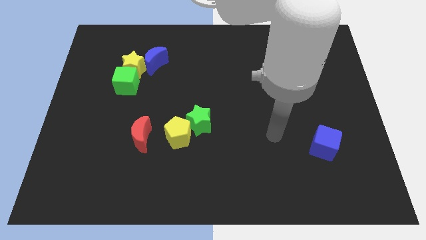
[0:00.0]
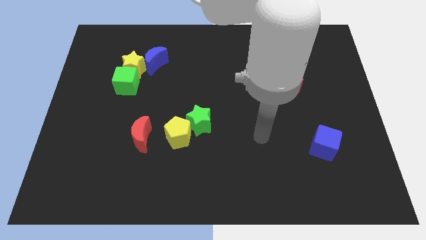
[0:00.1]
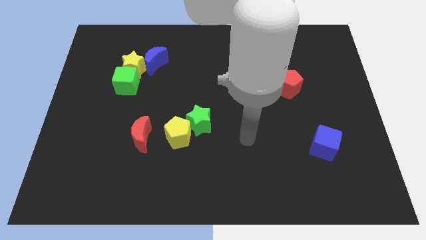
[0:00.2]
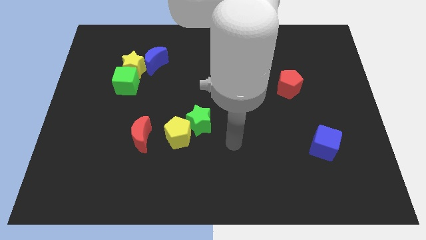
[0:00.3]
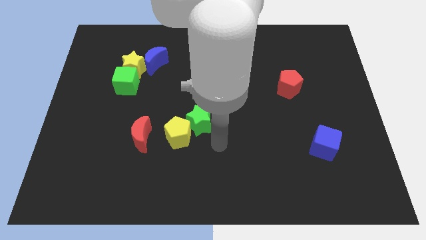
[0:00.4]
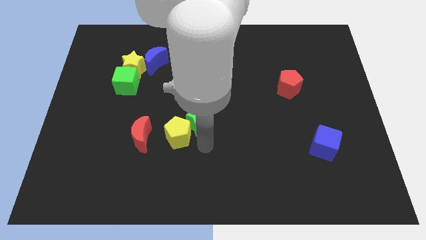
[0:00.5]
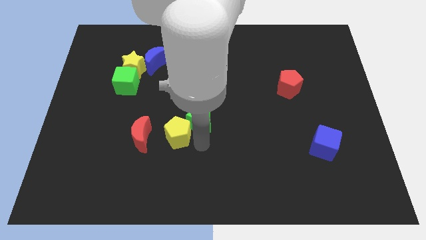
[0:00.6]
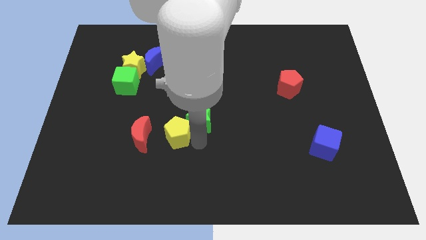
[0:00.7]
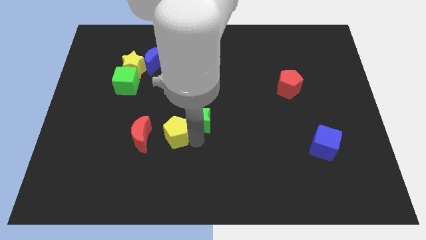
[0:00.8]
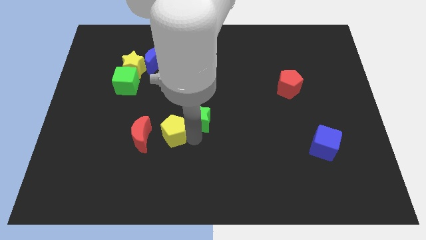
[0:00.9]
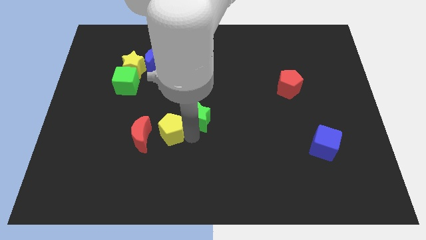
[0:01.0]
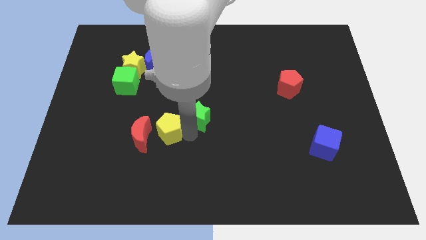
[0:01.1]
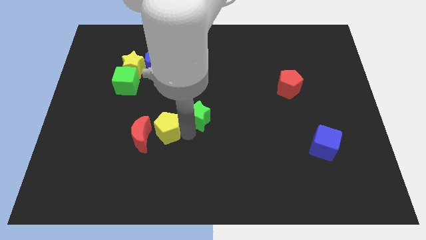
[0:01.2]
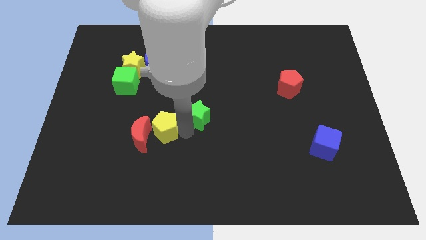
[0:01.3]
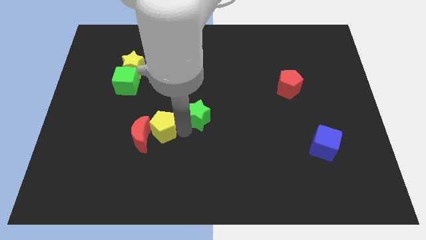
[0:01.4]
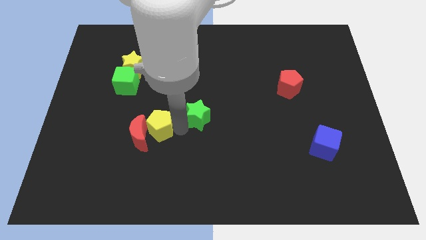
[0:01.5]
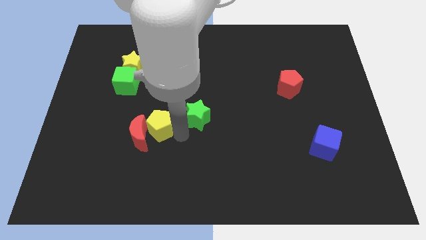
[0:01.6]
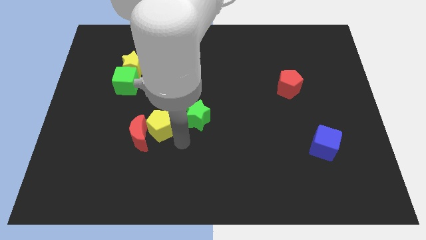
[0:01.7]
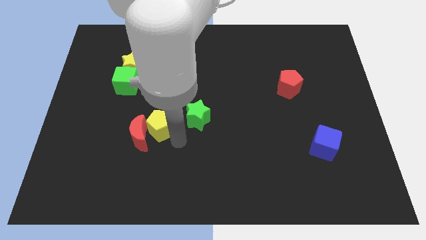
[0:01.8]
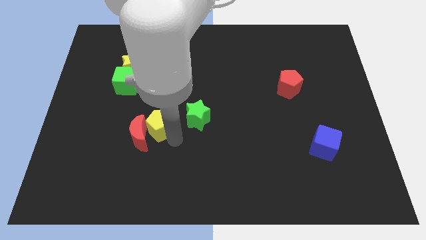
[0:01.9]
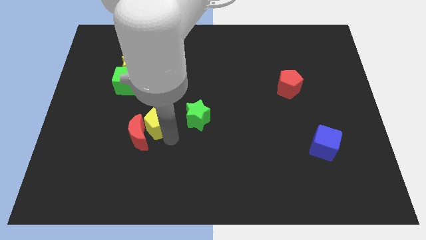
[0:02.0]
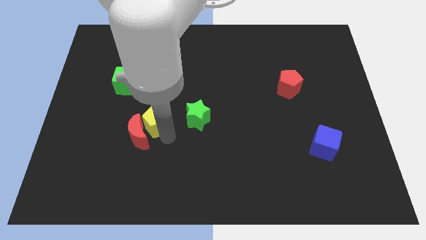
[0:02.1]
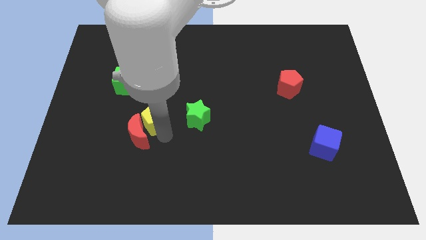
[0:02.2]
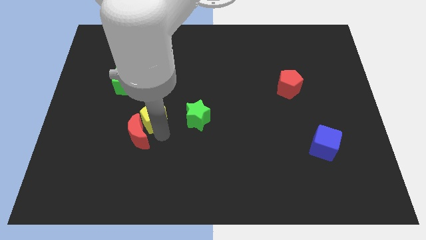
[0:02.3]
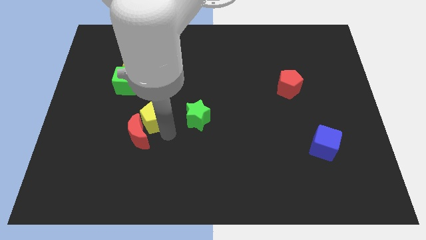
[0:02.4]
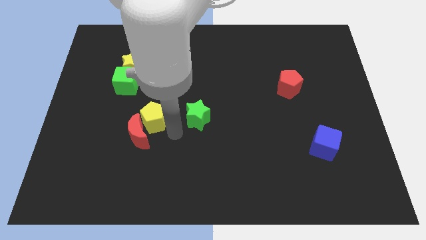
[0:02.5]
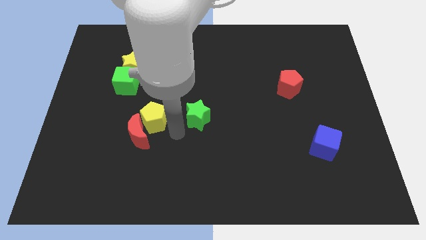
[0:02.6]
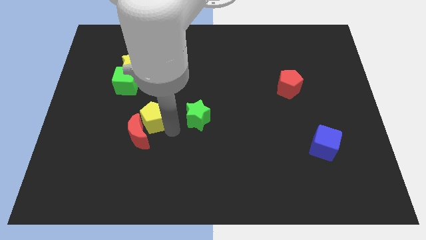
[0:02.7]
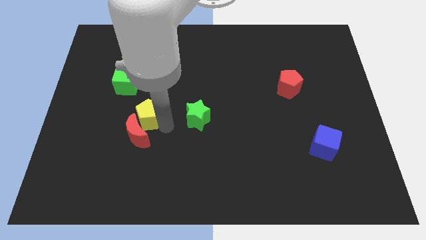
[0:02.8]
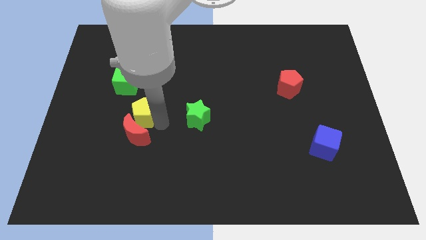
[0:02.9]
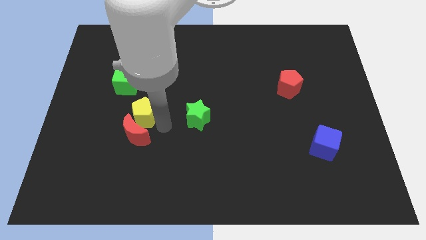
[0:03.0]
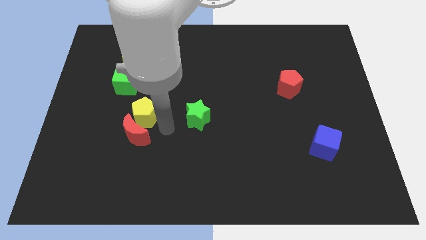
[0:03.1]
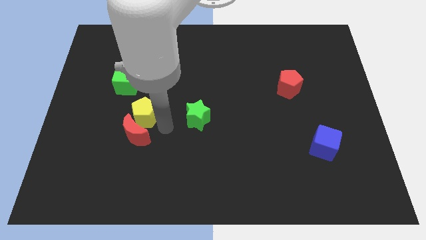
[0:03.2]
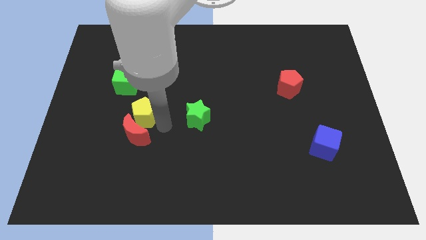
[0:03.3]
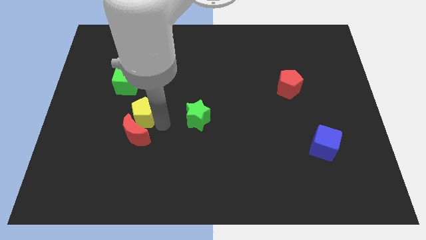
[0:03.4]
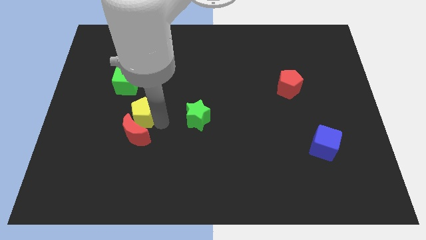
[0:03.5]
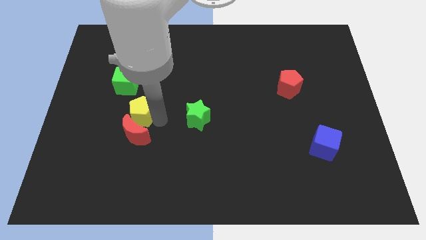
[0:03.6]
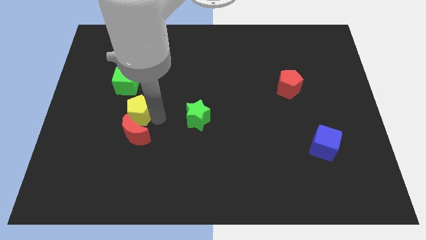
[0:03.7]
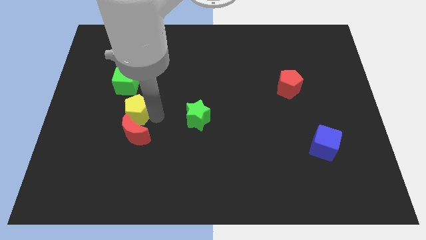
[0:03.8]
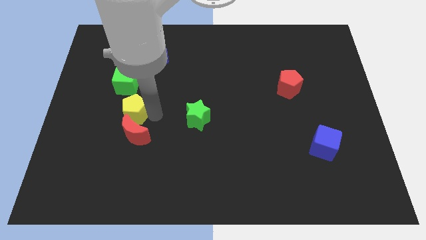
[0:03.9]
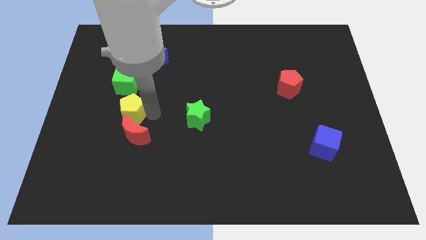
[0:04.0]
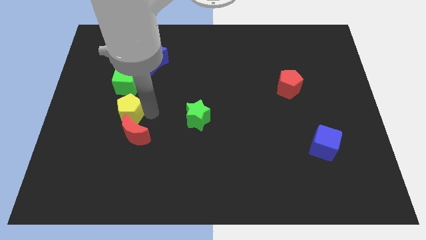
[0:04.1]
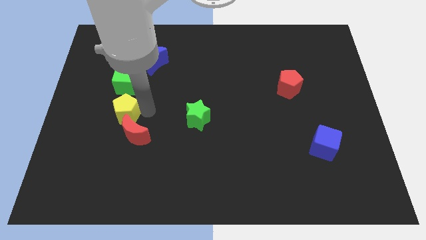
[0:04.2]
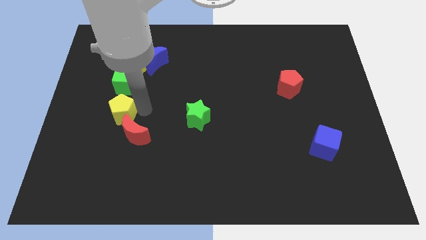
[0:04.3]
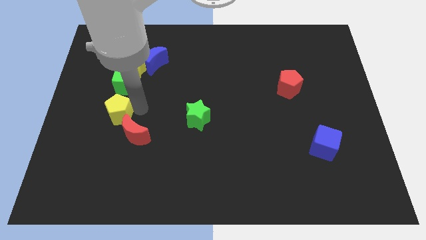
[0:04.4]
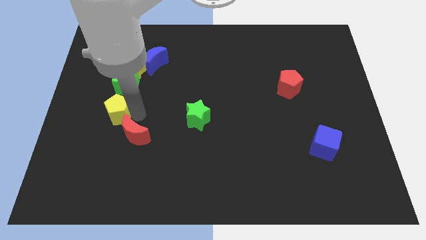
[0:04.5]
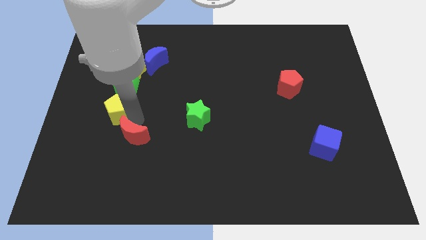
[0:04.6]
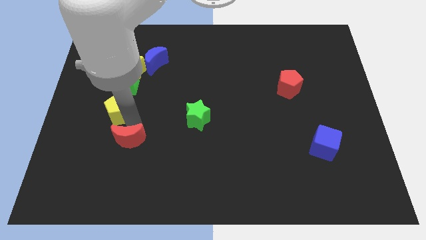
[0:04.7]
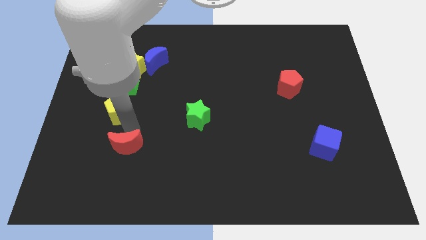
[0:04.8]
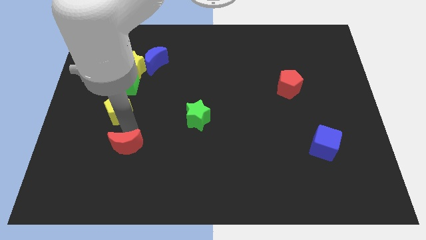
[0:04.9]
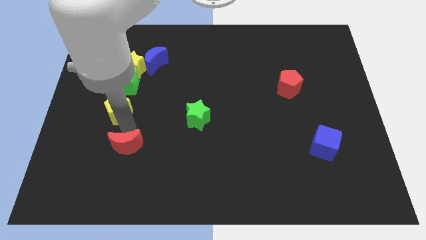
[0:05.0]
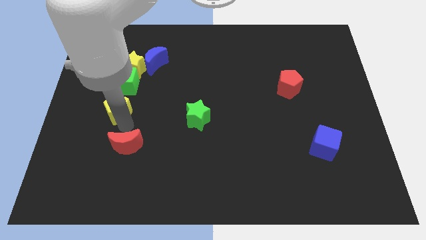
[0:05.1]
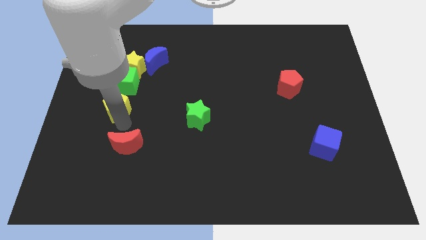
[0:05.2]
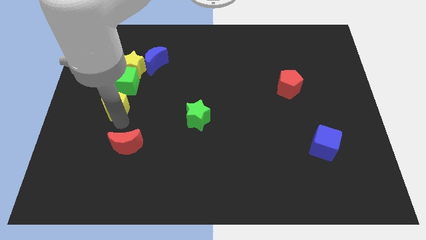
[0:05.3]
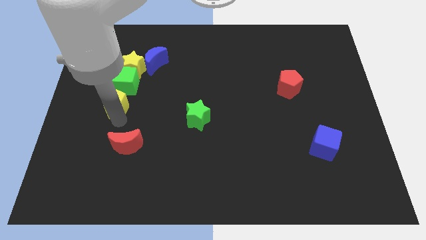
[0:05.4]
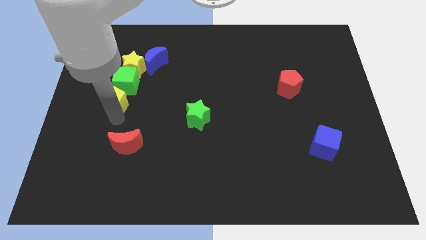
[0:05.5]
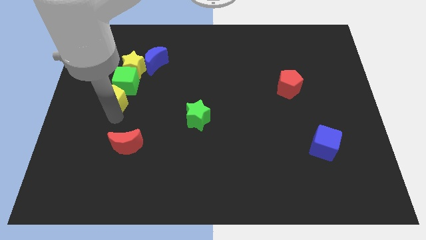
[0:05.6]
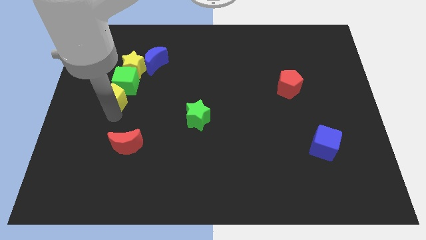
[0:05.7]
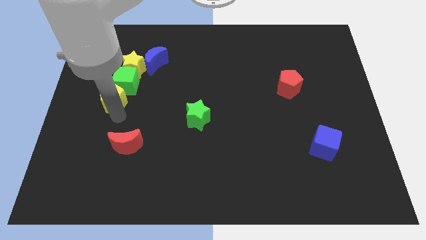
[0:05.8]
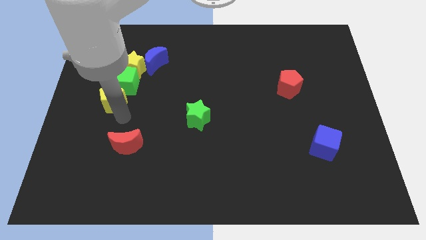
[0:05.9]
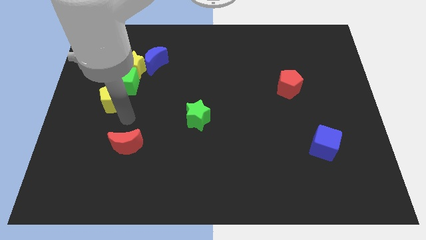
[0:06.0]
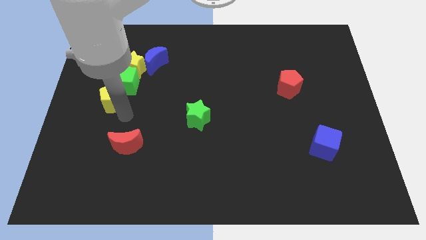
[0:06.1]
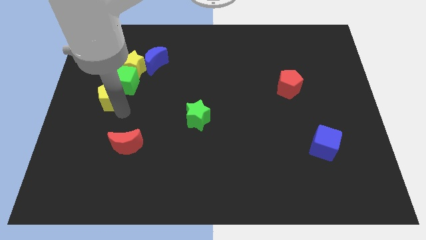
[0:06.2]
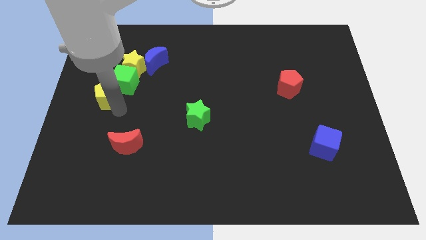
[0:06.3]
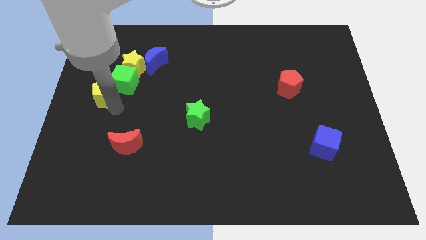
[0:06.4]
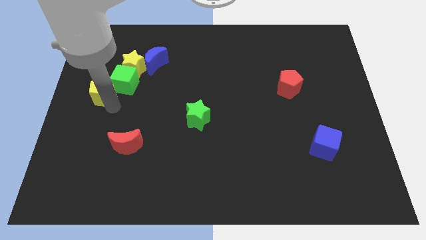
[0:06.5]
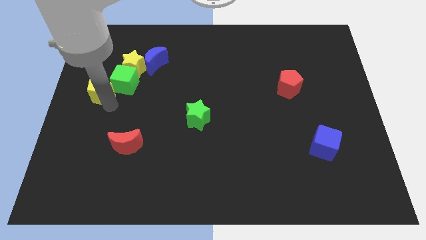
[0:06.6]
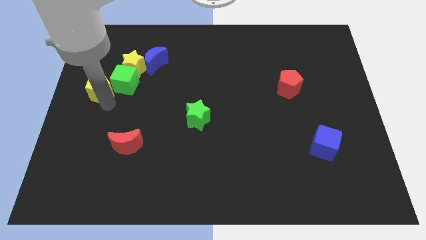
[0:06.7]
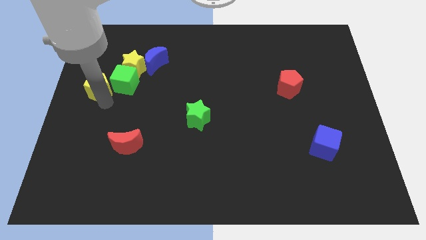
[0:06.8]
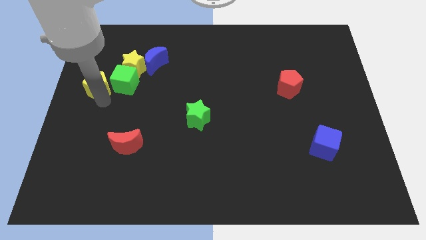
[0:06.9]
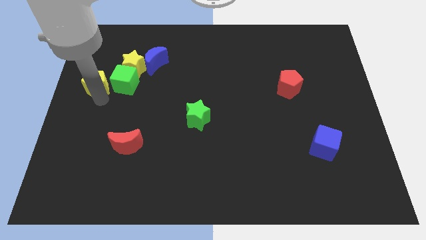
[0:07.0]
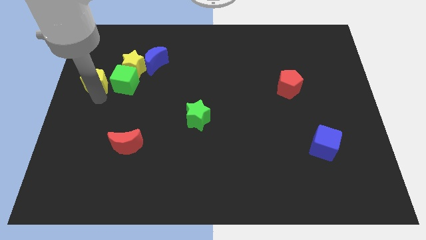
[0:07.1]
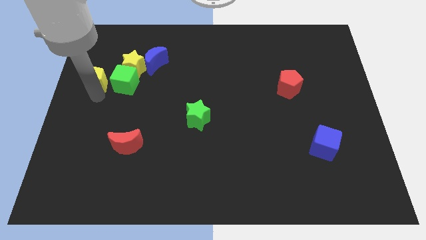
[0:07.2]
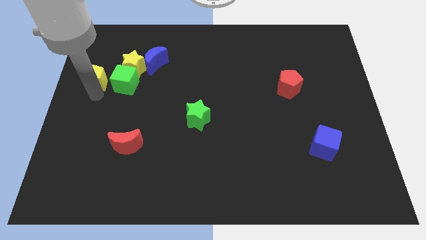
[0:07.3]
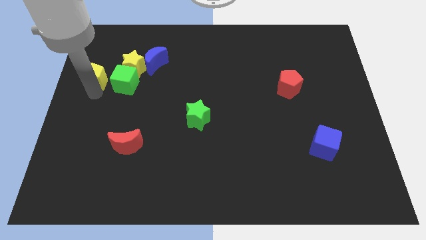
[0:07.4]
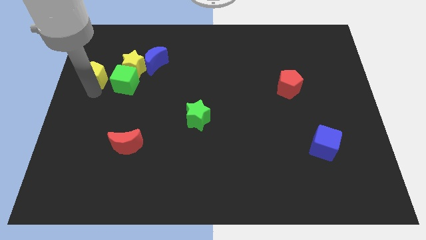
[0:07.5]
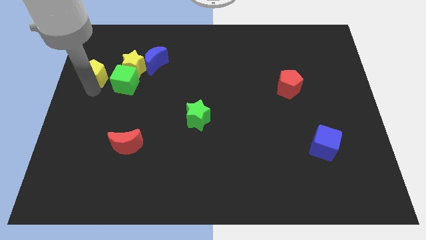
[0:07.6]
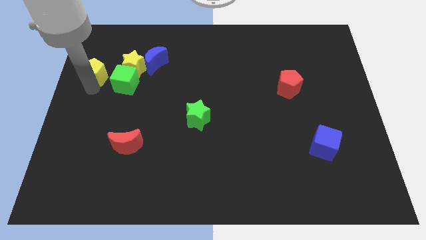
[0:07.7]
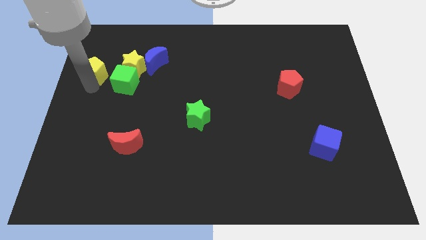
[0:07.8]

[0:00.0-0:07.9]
slide the yellow pentagon just left of the blue moon
